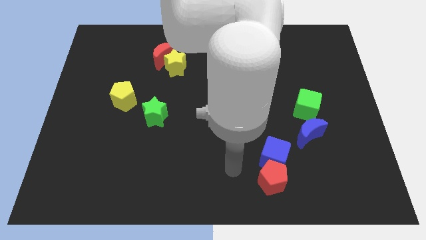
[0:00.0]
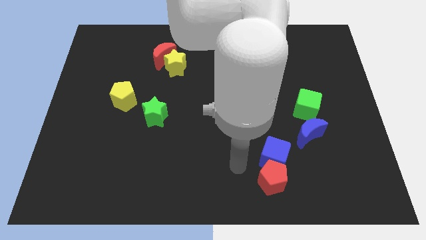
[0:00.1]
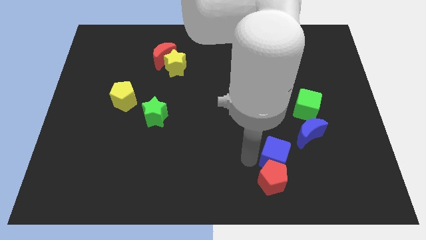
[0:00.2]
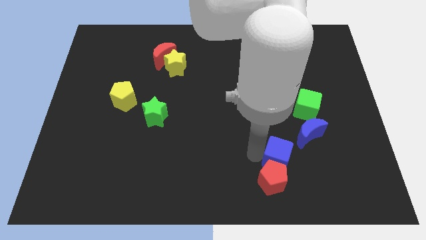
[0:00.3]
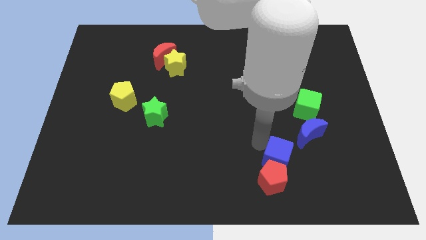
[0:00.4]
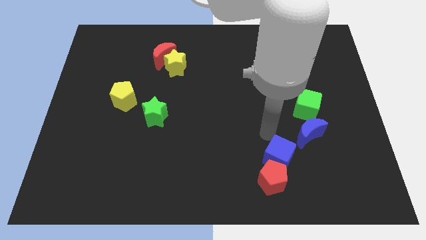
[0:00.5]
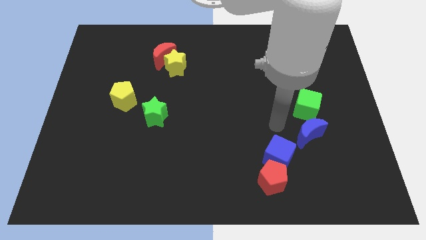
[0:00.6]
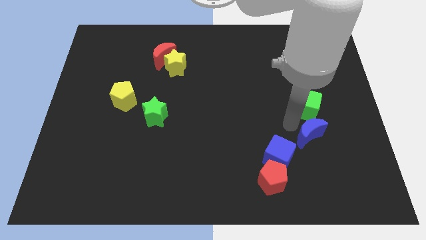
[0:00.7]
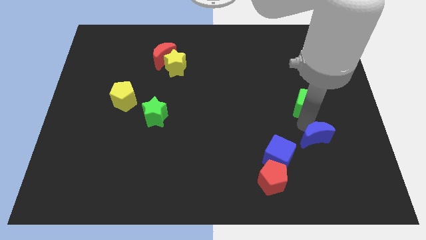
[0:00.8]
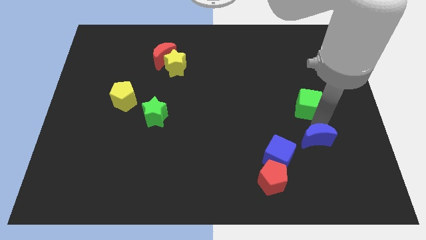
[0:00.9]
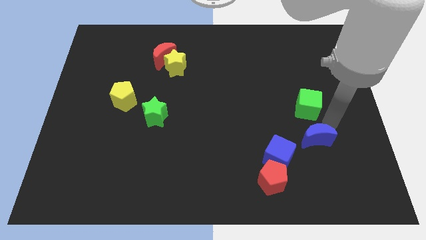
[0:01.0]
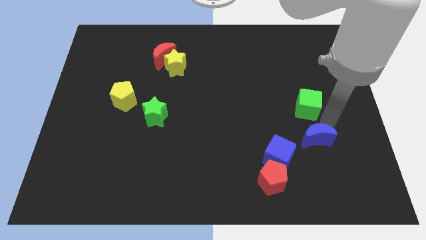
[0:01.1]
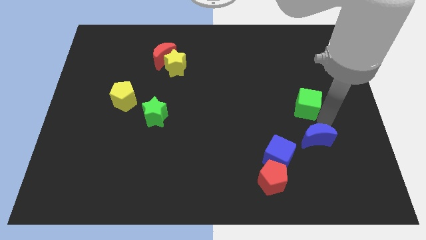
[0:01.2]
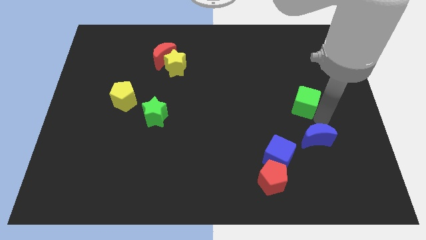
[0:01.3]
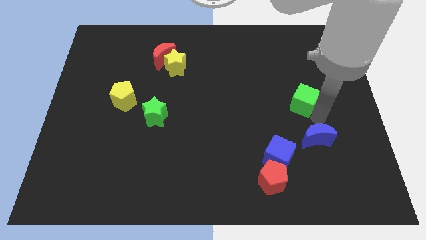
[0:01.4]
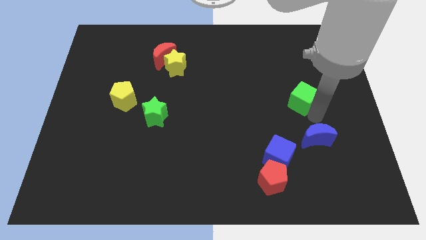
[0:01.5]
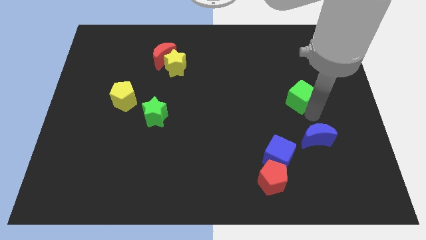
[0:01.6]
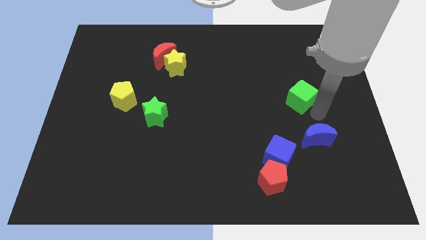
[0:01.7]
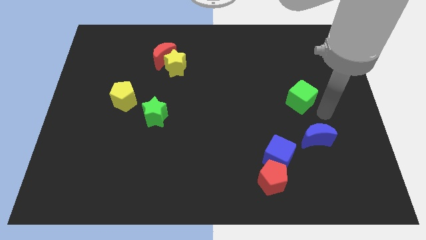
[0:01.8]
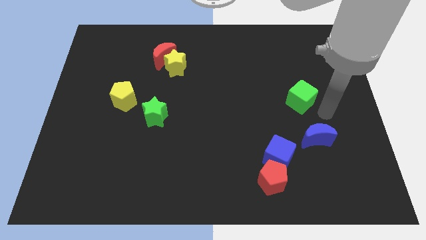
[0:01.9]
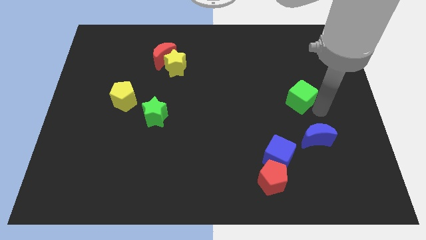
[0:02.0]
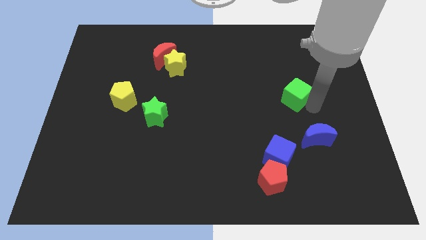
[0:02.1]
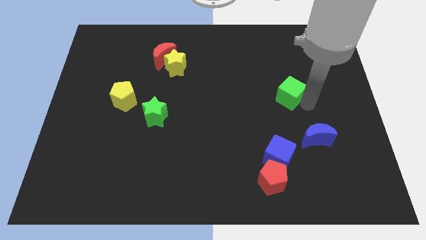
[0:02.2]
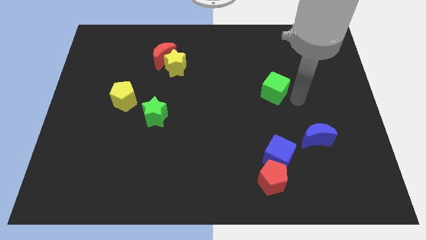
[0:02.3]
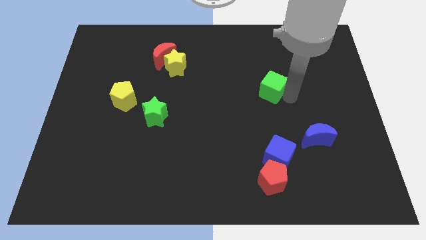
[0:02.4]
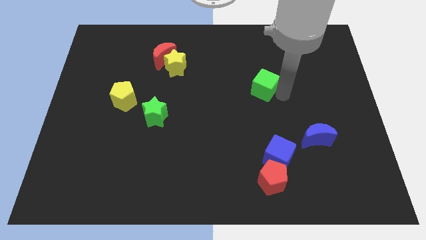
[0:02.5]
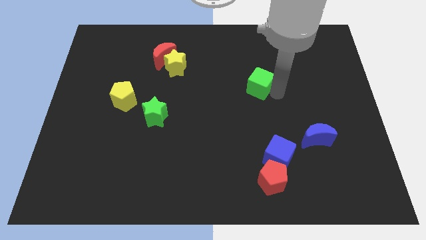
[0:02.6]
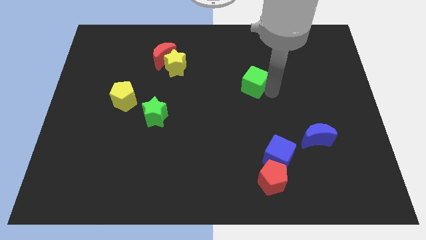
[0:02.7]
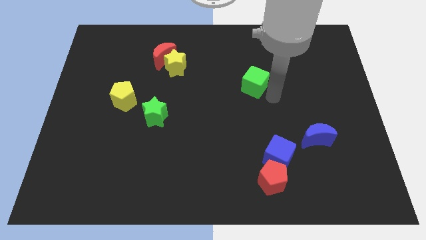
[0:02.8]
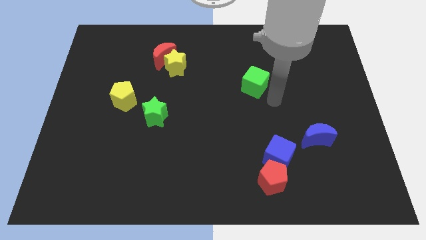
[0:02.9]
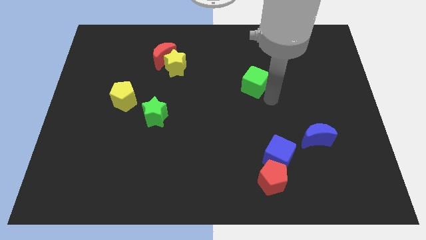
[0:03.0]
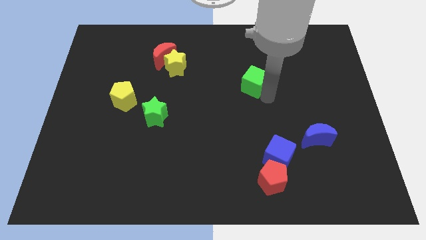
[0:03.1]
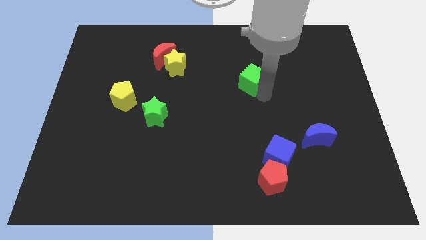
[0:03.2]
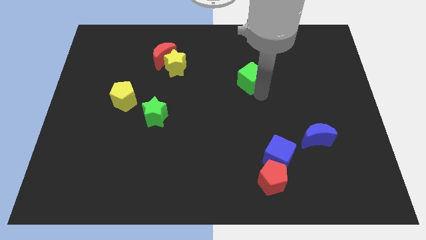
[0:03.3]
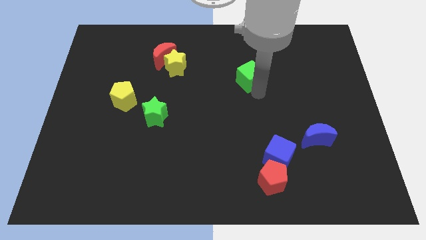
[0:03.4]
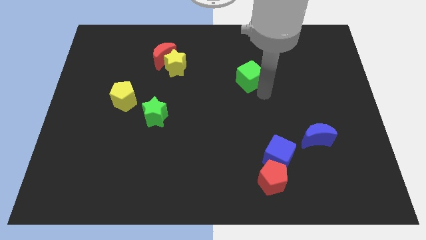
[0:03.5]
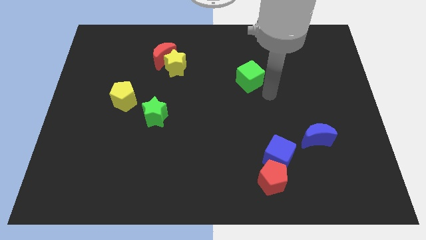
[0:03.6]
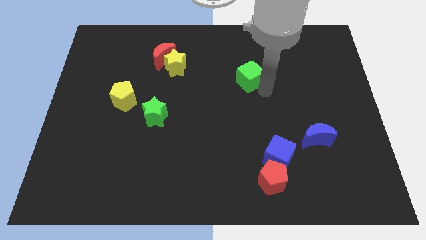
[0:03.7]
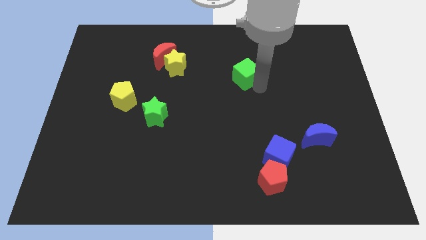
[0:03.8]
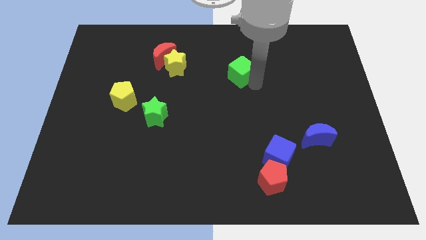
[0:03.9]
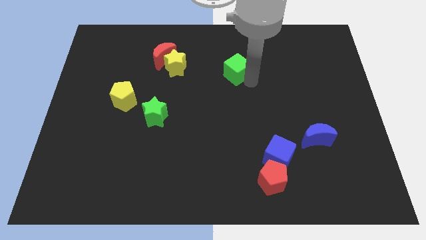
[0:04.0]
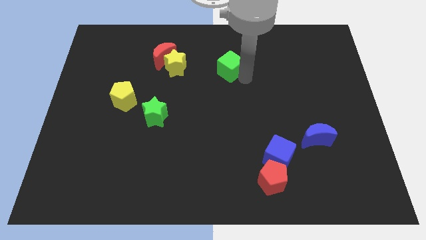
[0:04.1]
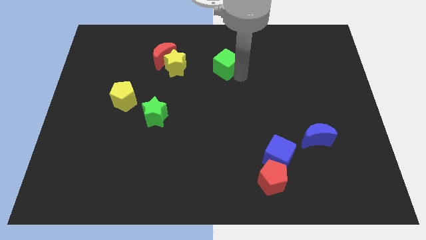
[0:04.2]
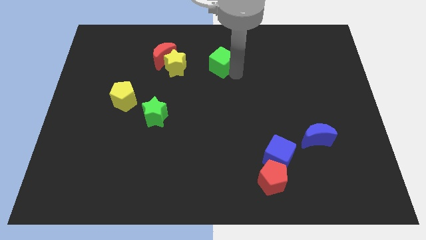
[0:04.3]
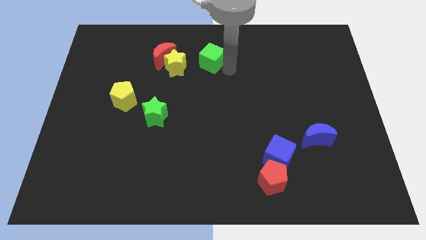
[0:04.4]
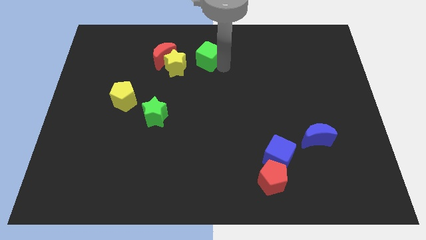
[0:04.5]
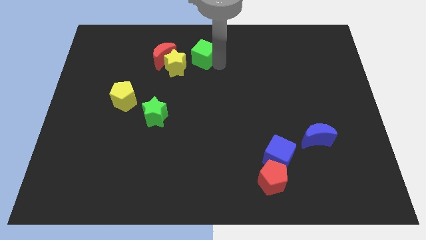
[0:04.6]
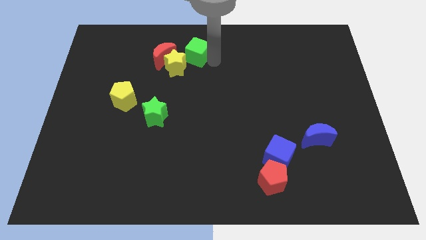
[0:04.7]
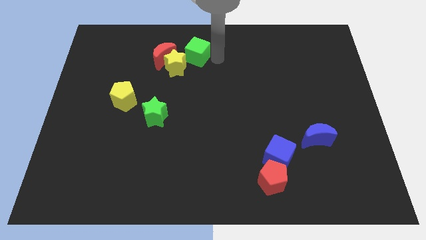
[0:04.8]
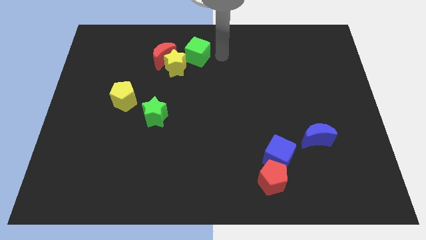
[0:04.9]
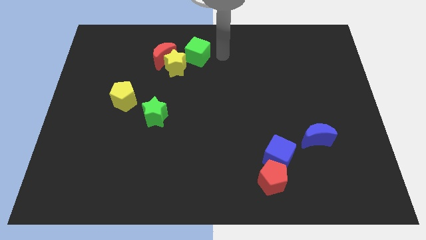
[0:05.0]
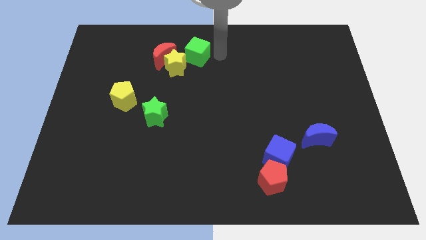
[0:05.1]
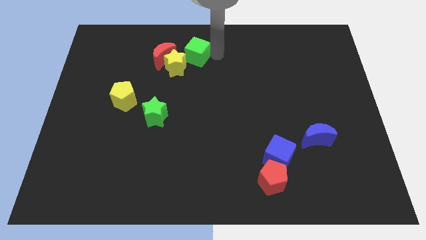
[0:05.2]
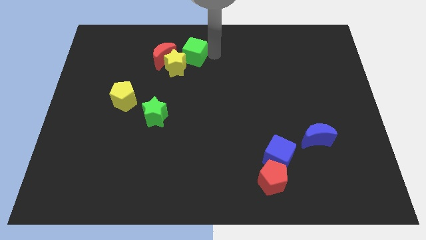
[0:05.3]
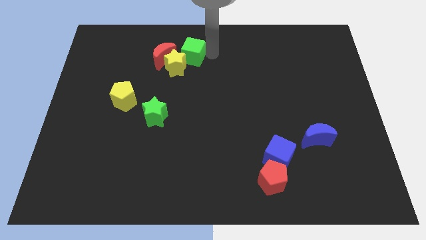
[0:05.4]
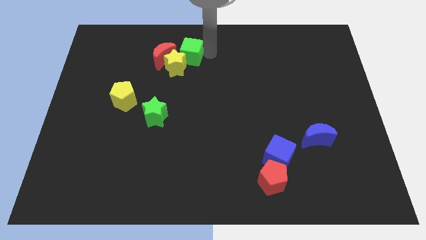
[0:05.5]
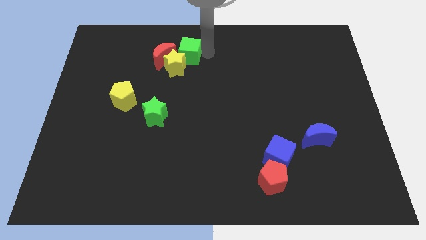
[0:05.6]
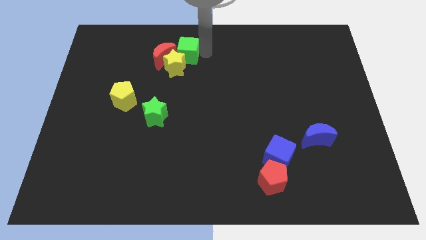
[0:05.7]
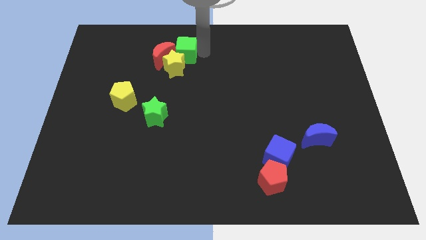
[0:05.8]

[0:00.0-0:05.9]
move the green cube towards the red moon

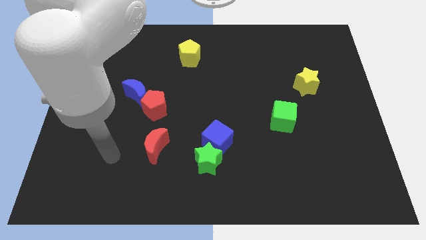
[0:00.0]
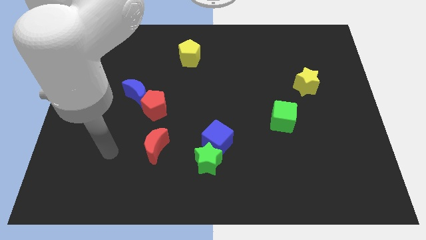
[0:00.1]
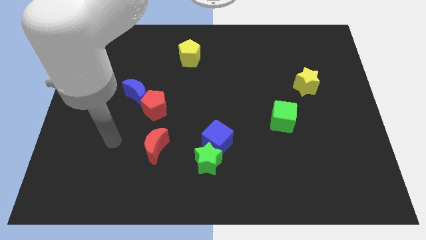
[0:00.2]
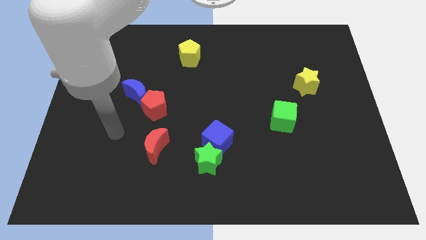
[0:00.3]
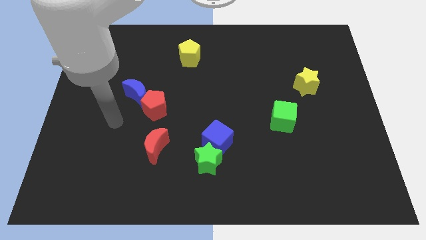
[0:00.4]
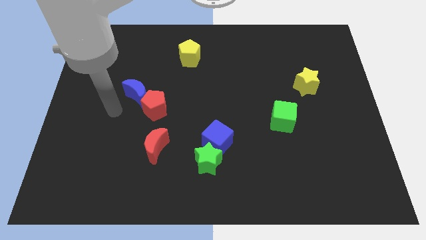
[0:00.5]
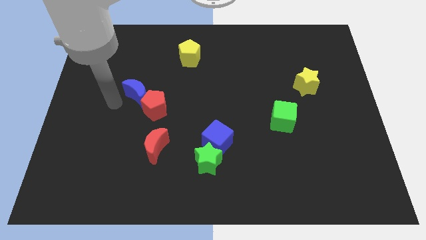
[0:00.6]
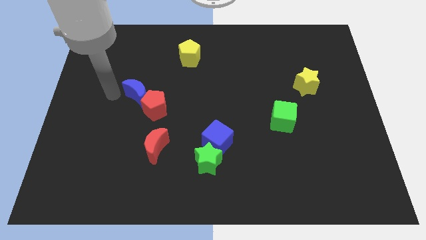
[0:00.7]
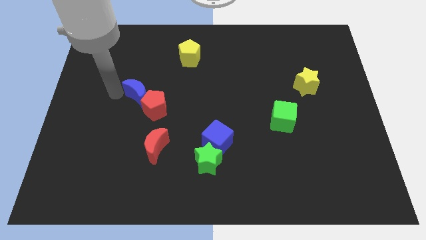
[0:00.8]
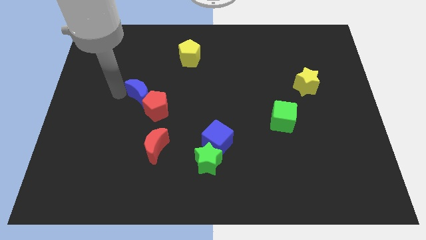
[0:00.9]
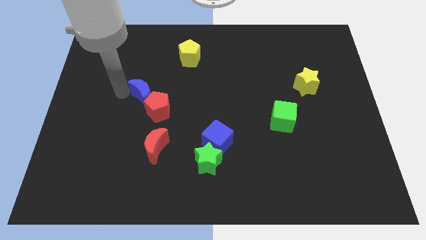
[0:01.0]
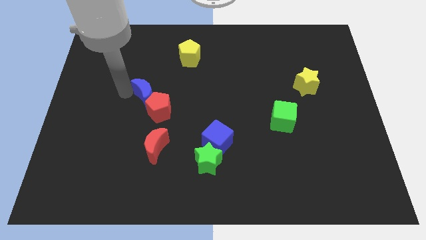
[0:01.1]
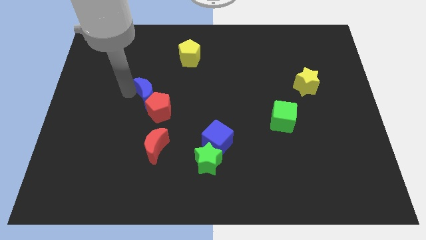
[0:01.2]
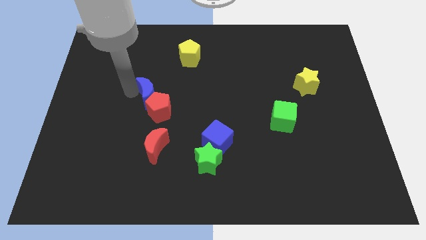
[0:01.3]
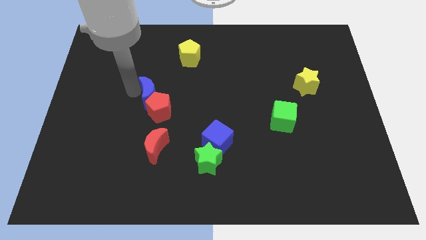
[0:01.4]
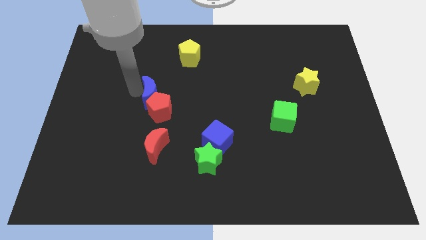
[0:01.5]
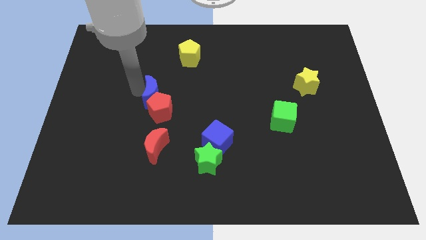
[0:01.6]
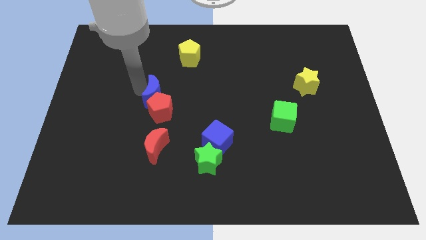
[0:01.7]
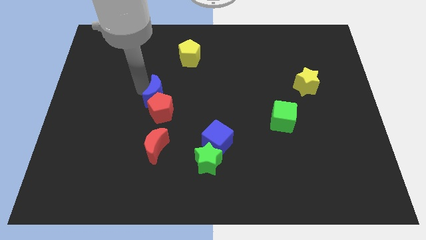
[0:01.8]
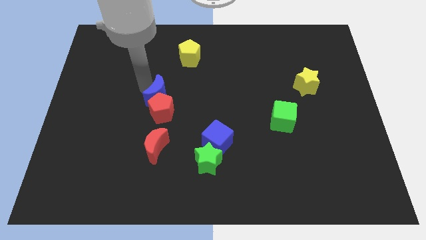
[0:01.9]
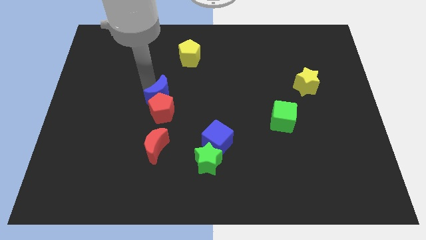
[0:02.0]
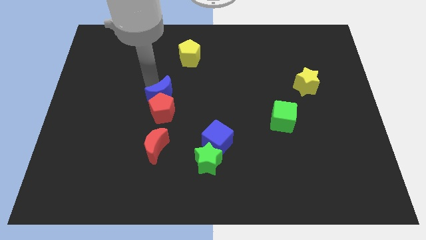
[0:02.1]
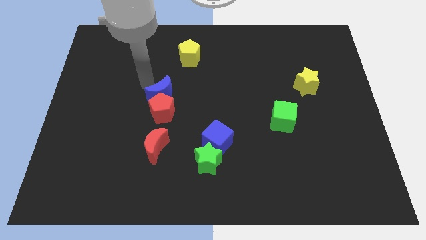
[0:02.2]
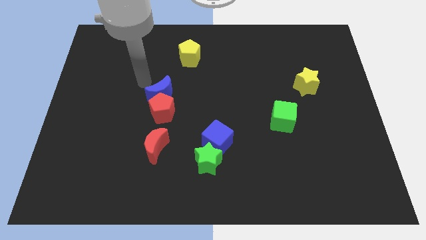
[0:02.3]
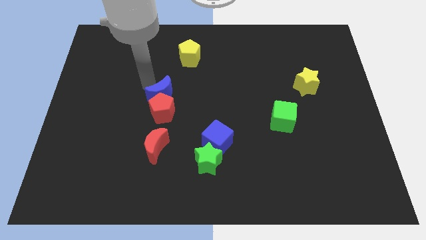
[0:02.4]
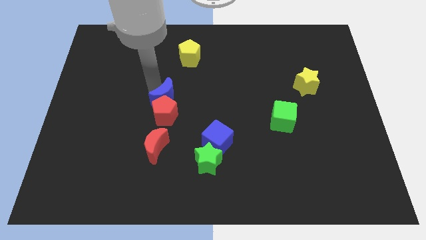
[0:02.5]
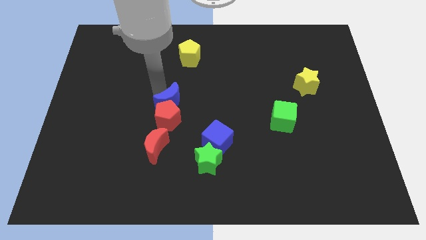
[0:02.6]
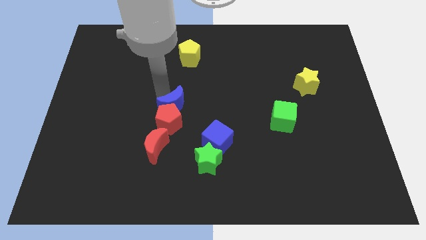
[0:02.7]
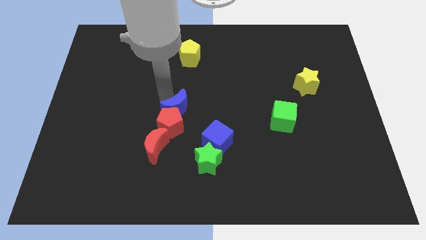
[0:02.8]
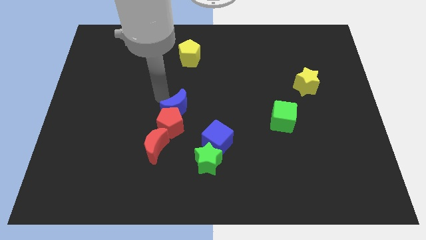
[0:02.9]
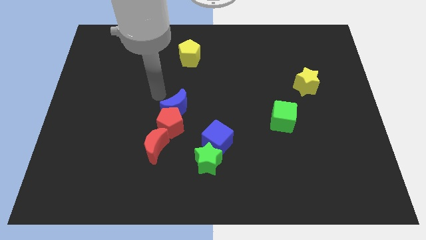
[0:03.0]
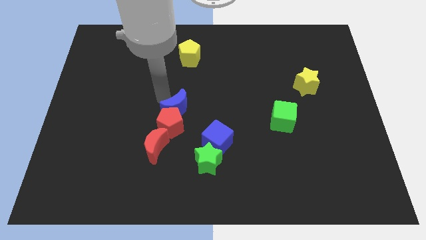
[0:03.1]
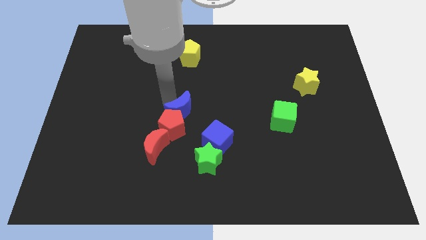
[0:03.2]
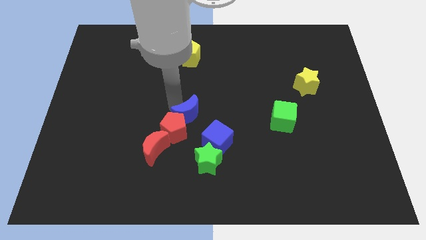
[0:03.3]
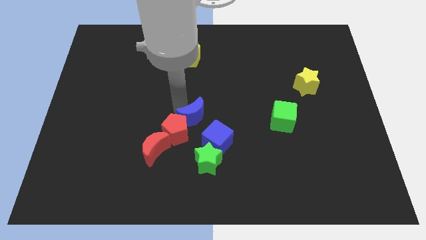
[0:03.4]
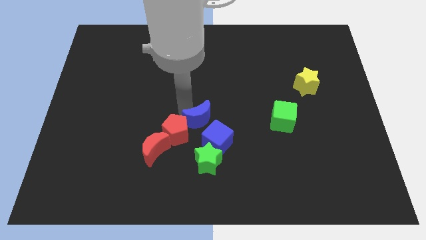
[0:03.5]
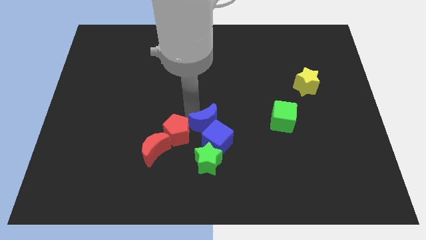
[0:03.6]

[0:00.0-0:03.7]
put the blue moon towards the blue cube
